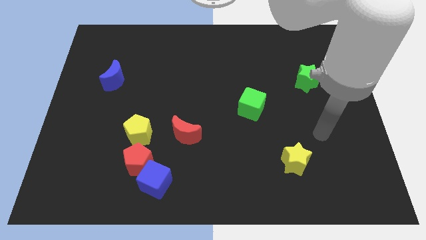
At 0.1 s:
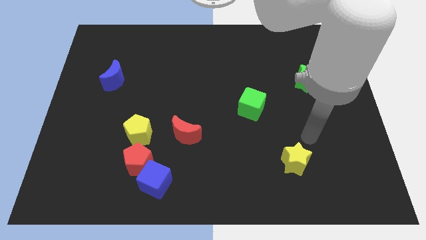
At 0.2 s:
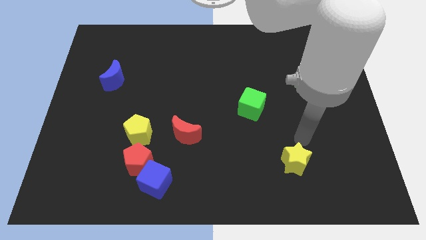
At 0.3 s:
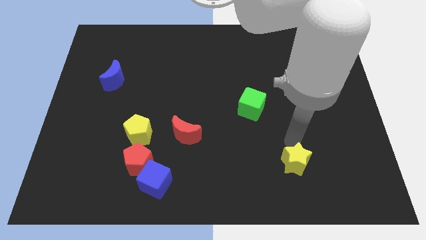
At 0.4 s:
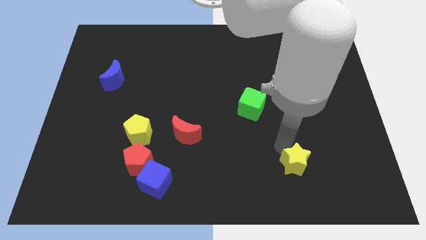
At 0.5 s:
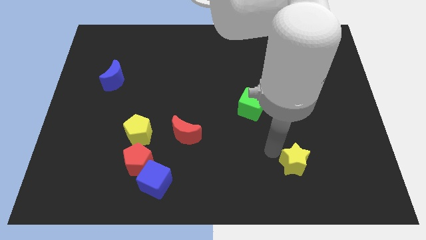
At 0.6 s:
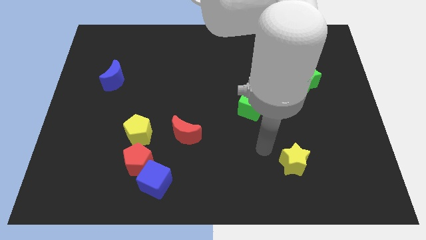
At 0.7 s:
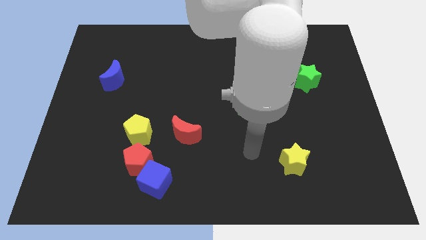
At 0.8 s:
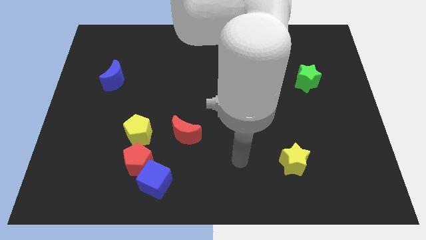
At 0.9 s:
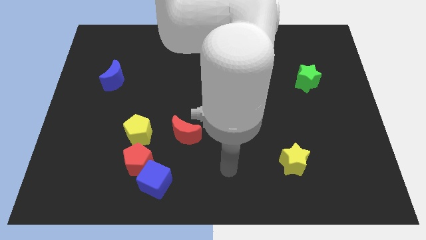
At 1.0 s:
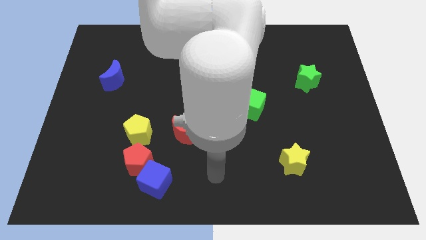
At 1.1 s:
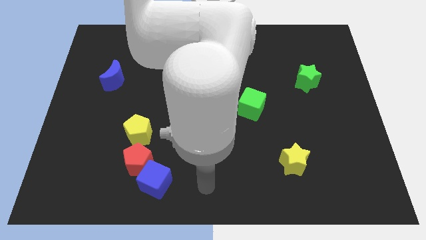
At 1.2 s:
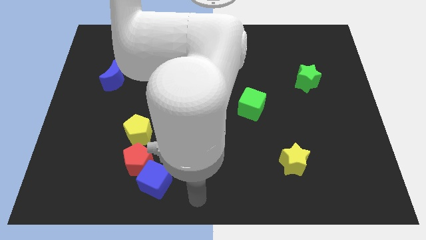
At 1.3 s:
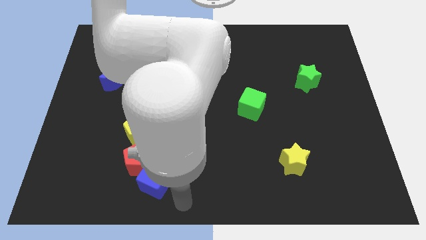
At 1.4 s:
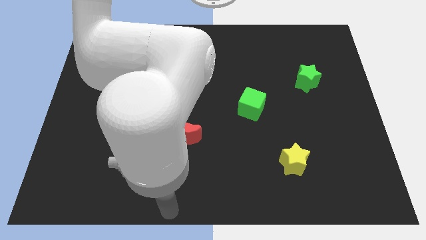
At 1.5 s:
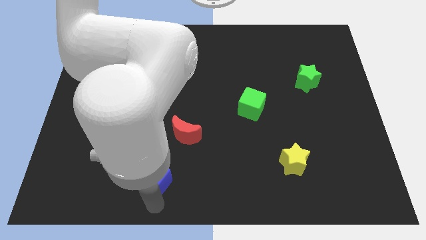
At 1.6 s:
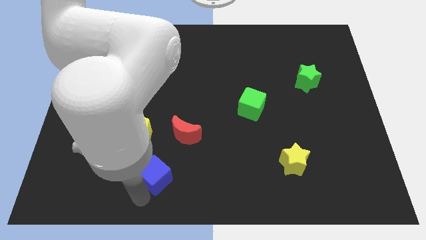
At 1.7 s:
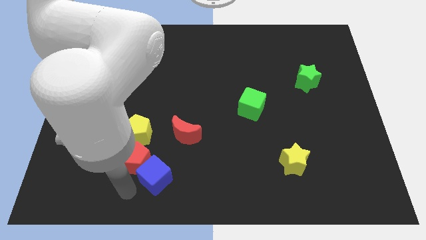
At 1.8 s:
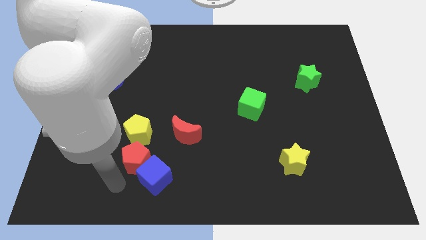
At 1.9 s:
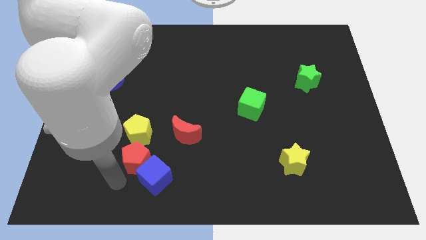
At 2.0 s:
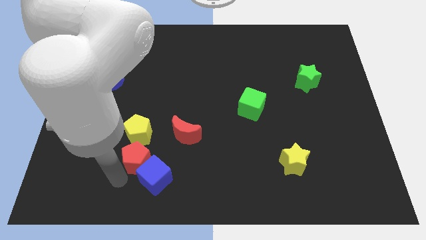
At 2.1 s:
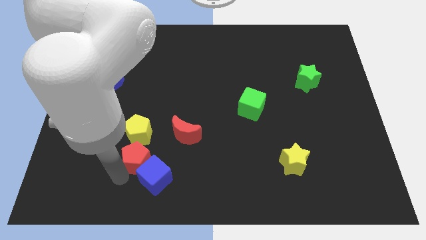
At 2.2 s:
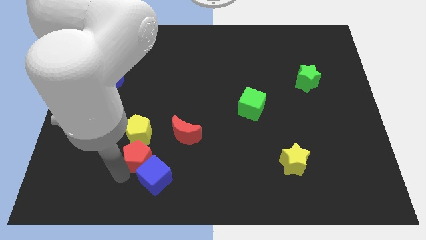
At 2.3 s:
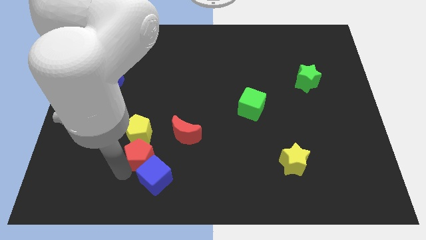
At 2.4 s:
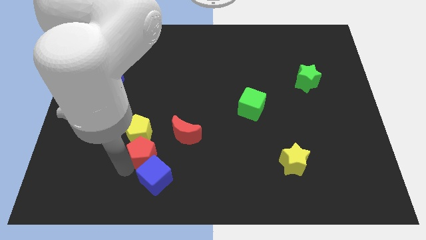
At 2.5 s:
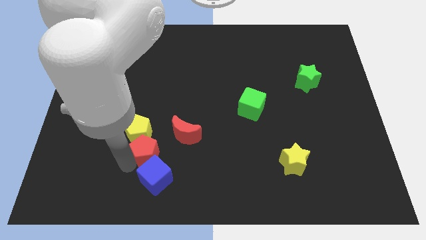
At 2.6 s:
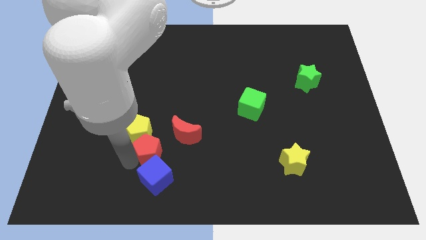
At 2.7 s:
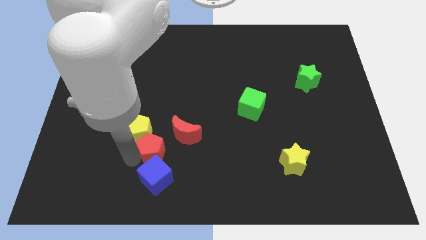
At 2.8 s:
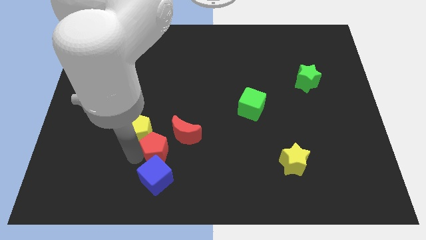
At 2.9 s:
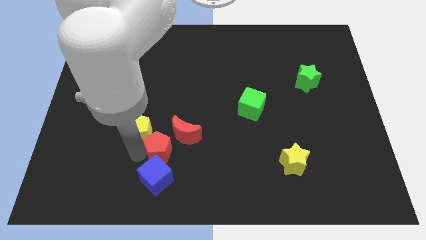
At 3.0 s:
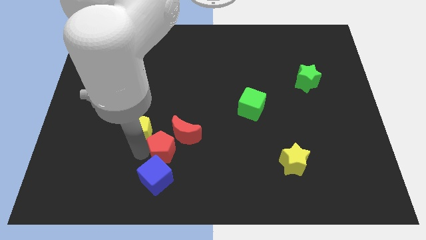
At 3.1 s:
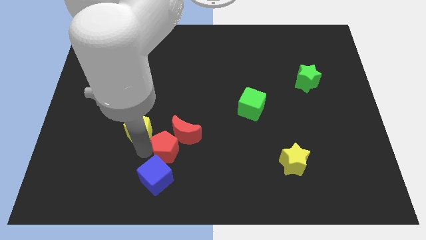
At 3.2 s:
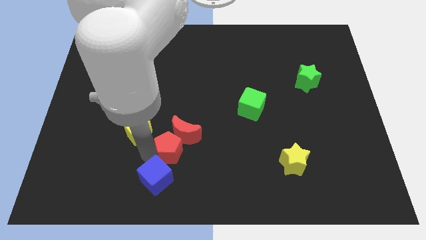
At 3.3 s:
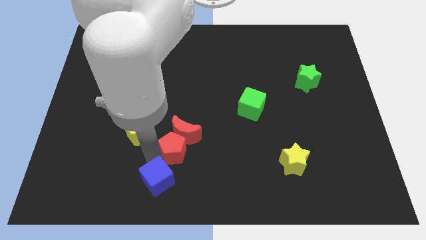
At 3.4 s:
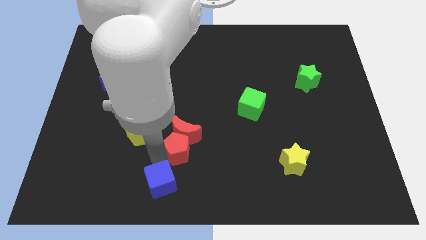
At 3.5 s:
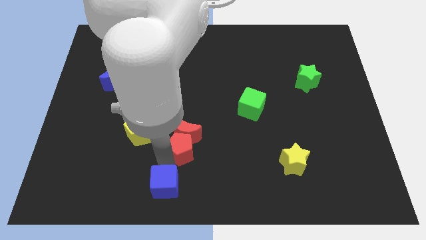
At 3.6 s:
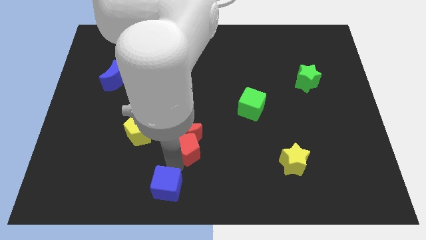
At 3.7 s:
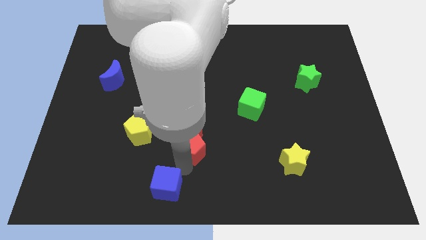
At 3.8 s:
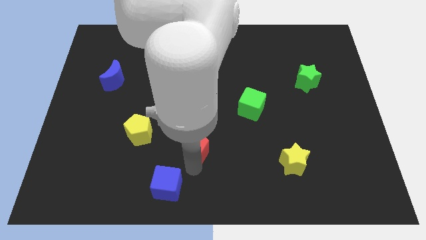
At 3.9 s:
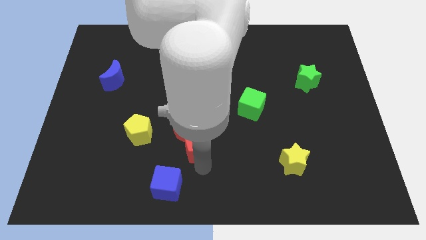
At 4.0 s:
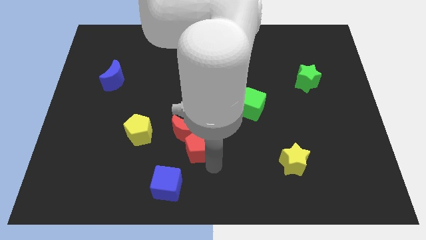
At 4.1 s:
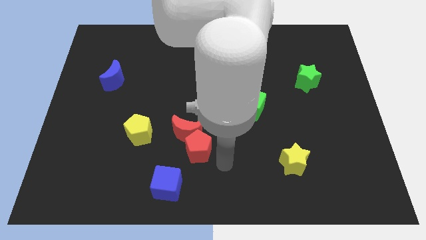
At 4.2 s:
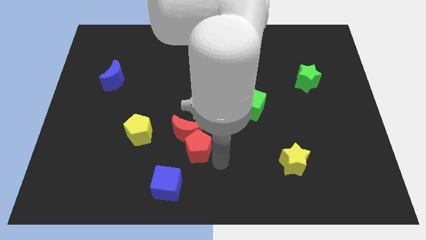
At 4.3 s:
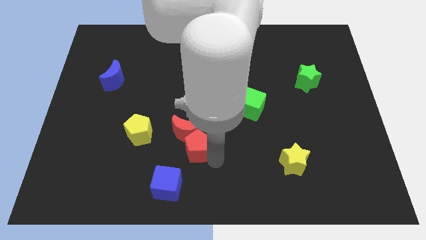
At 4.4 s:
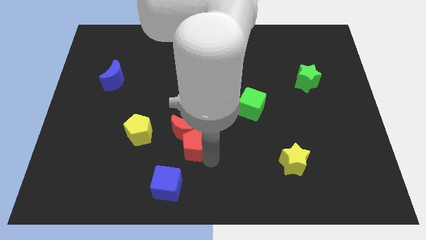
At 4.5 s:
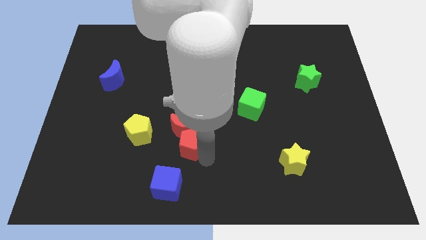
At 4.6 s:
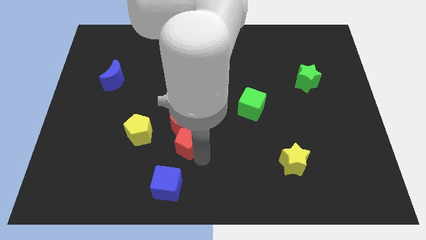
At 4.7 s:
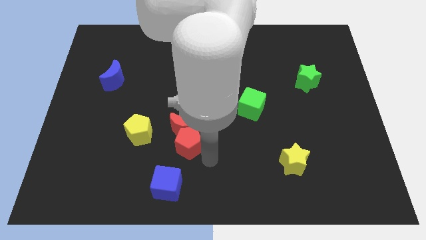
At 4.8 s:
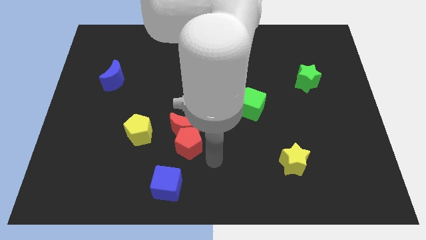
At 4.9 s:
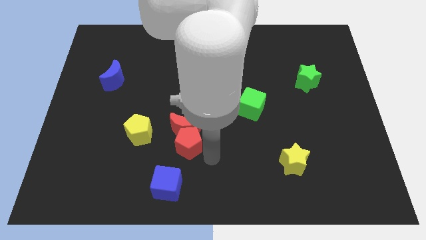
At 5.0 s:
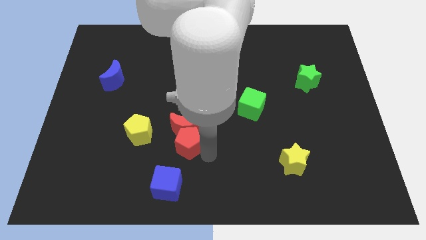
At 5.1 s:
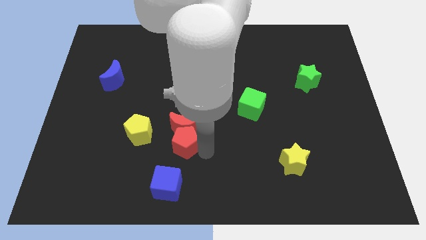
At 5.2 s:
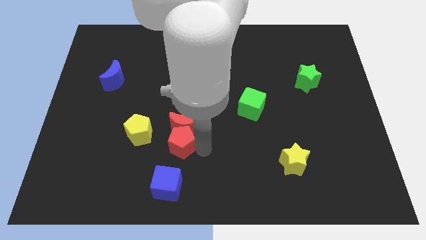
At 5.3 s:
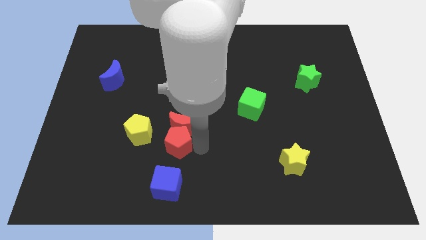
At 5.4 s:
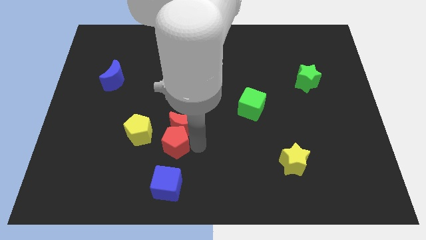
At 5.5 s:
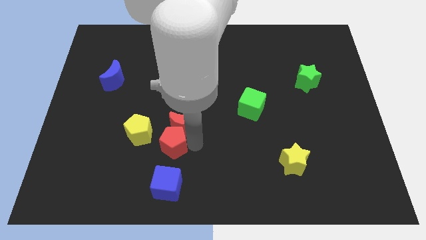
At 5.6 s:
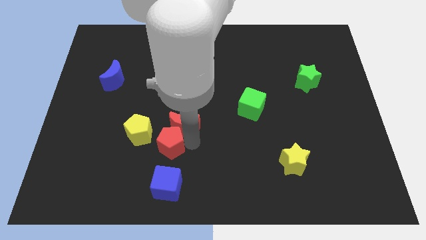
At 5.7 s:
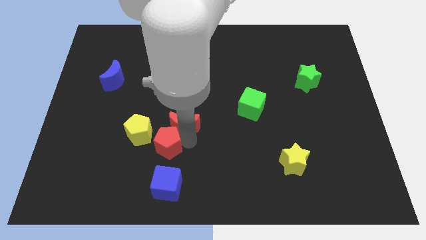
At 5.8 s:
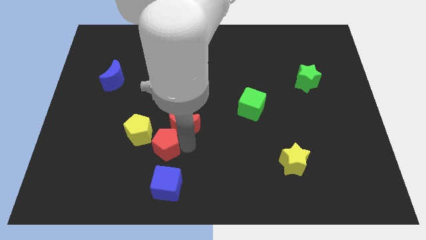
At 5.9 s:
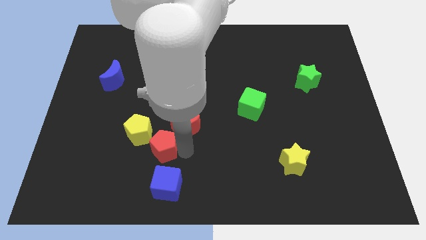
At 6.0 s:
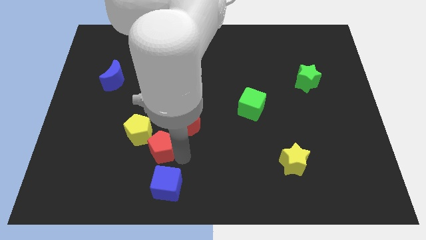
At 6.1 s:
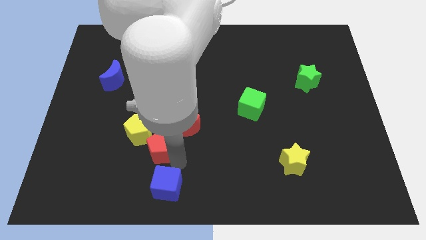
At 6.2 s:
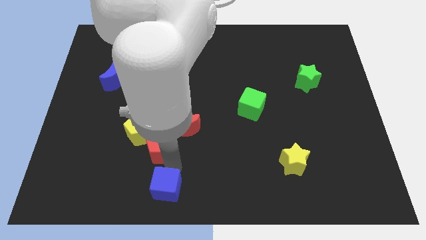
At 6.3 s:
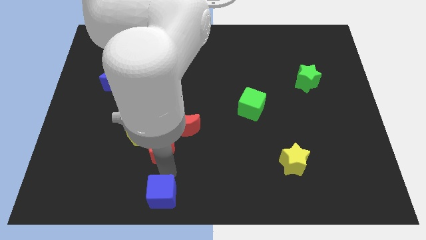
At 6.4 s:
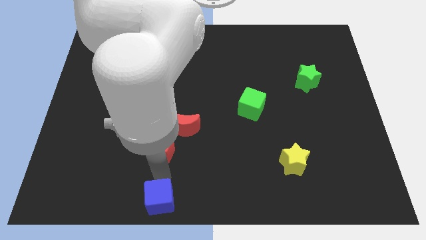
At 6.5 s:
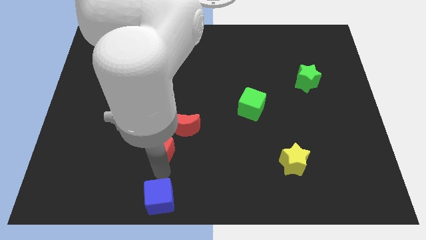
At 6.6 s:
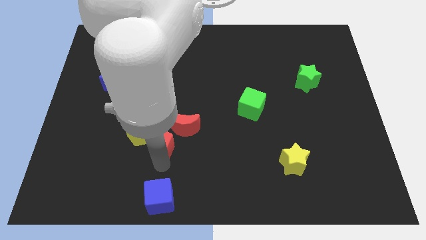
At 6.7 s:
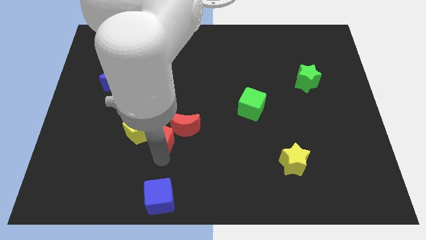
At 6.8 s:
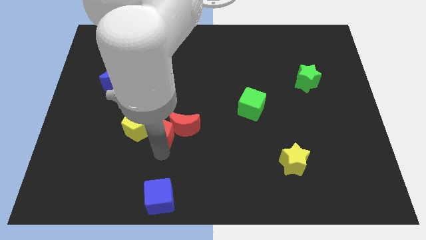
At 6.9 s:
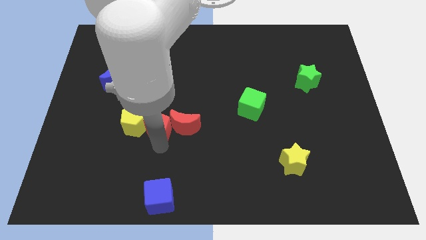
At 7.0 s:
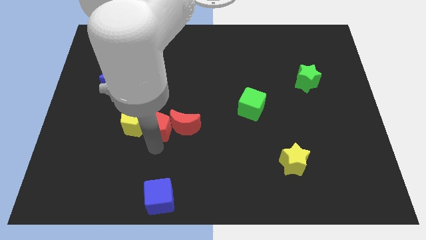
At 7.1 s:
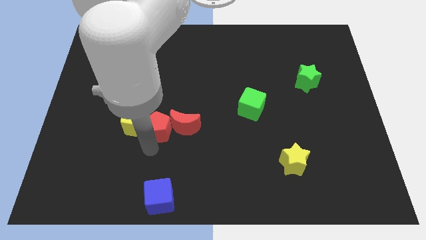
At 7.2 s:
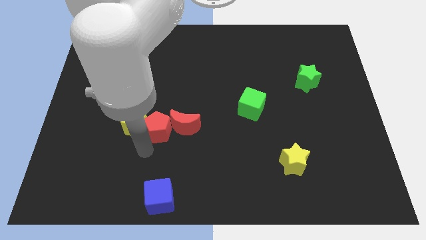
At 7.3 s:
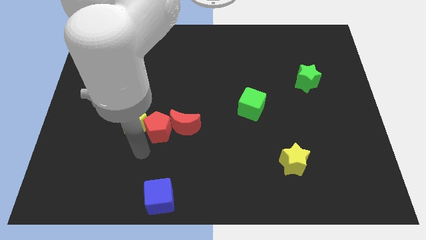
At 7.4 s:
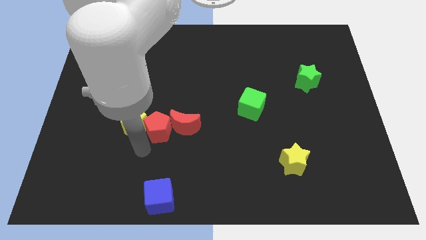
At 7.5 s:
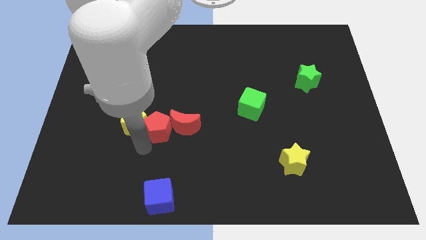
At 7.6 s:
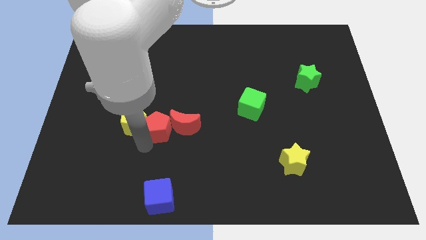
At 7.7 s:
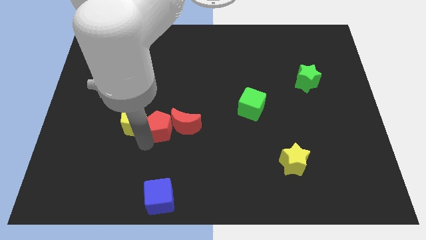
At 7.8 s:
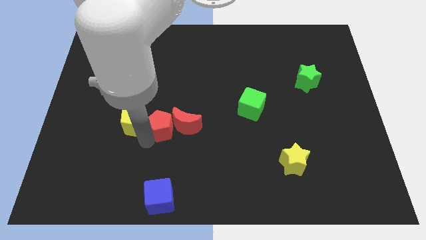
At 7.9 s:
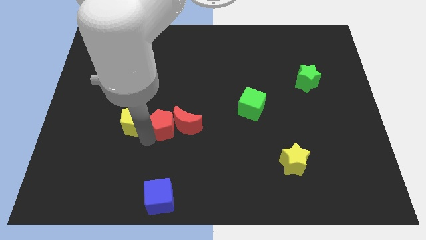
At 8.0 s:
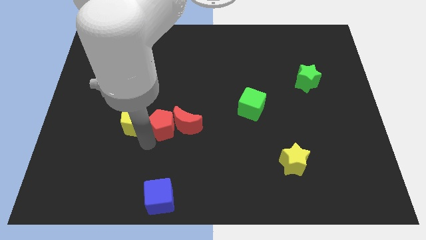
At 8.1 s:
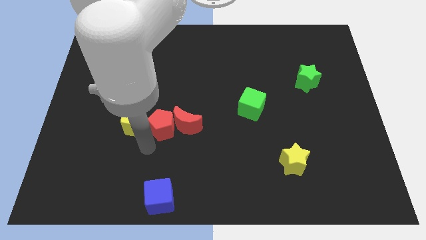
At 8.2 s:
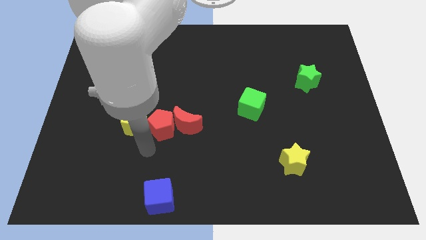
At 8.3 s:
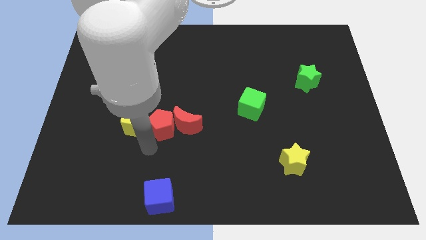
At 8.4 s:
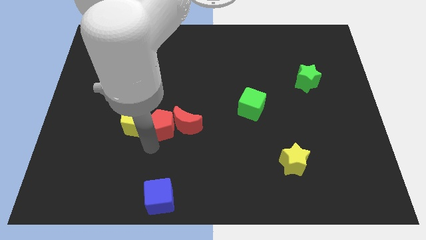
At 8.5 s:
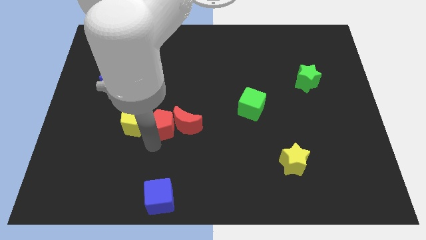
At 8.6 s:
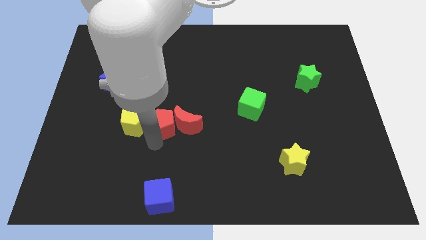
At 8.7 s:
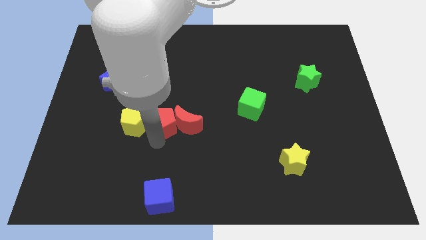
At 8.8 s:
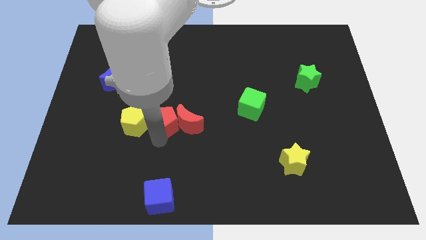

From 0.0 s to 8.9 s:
push the red pentagon to the center
